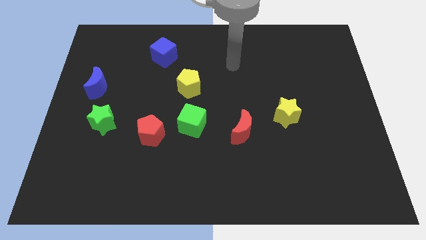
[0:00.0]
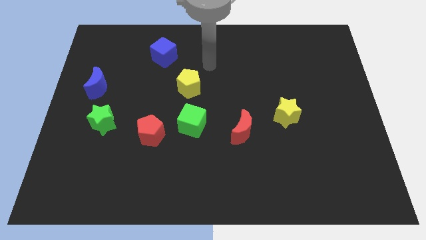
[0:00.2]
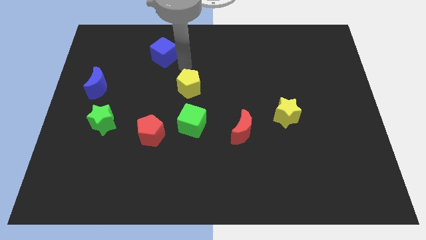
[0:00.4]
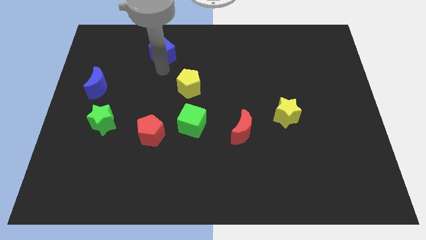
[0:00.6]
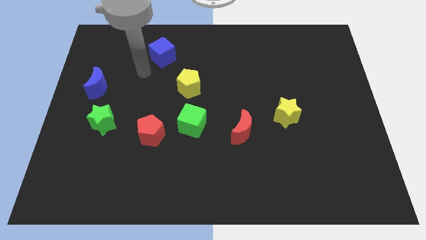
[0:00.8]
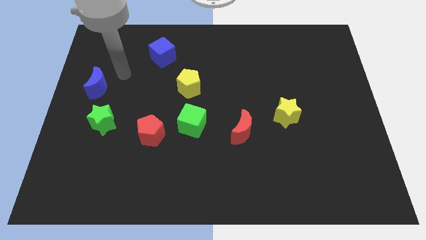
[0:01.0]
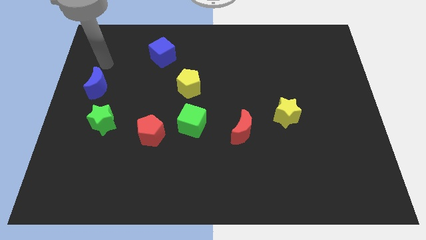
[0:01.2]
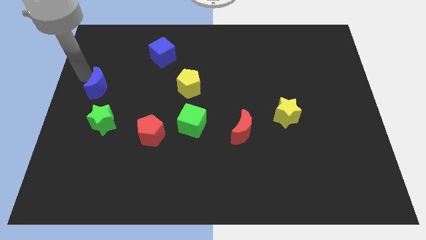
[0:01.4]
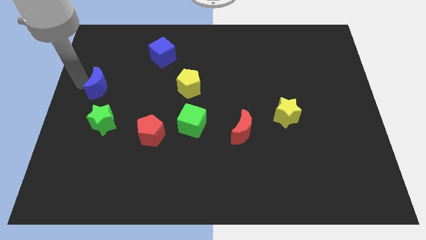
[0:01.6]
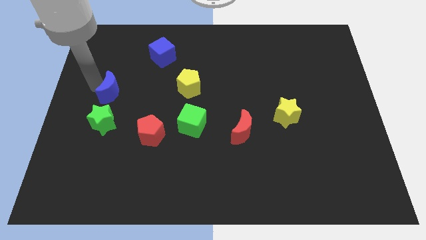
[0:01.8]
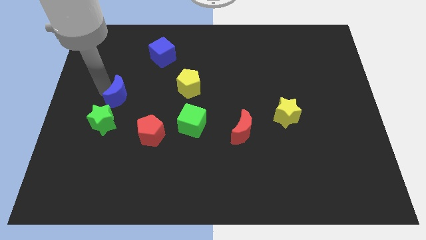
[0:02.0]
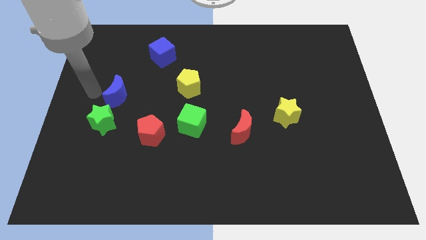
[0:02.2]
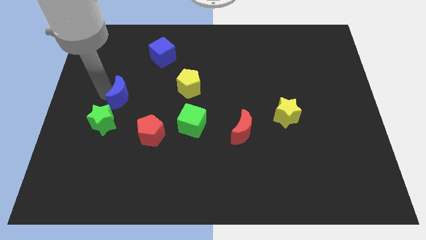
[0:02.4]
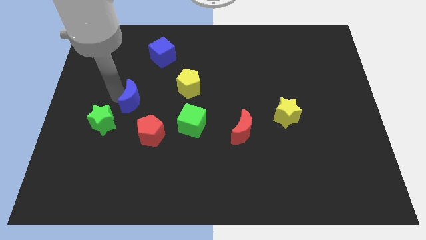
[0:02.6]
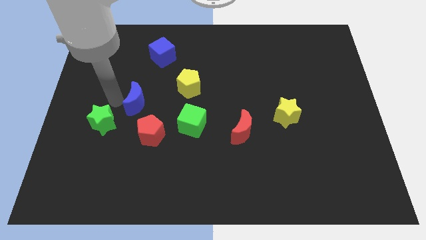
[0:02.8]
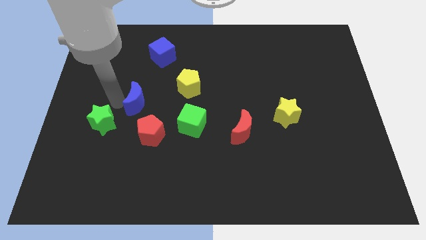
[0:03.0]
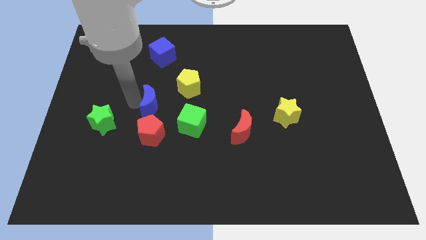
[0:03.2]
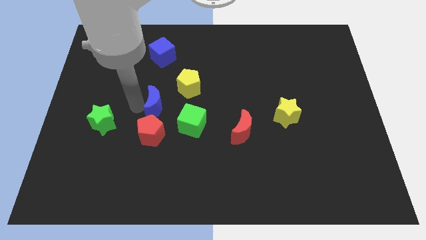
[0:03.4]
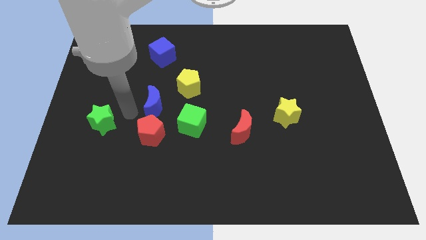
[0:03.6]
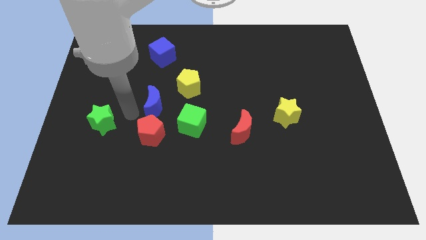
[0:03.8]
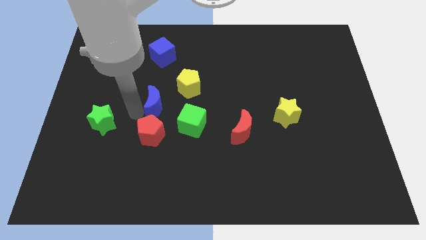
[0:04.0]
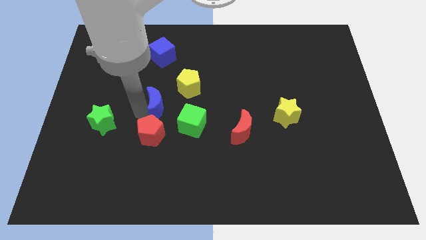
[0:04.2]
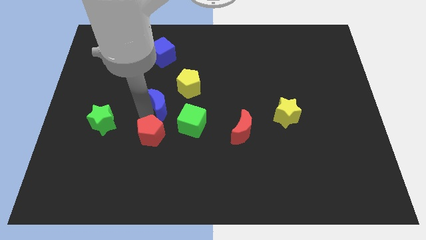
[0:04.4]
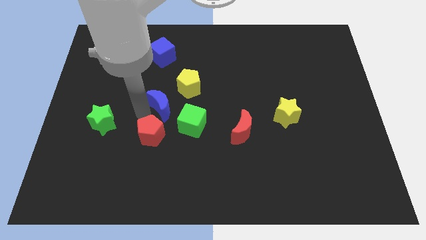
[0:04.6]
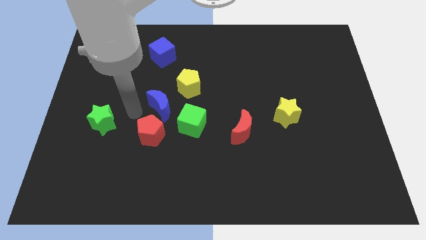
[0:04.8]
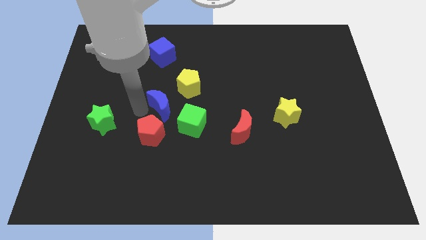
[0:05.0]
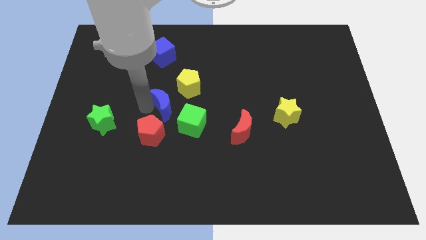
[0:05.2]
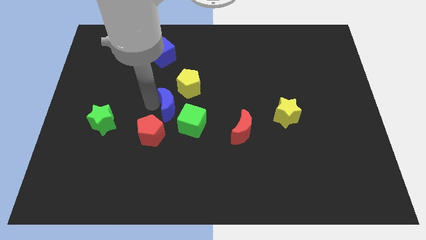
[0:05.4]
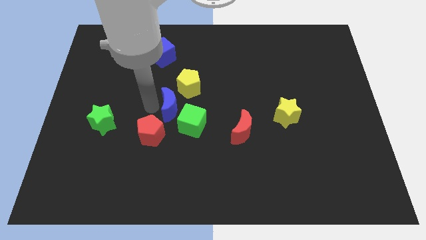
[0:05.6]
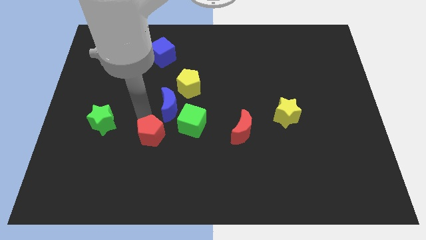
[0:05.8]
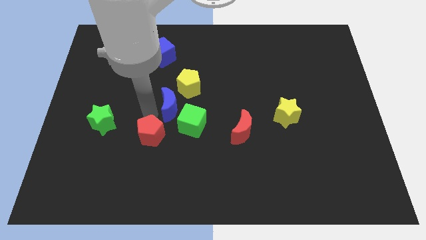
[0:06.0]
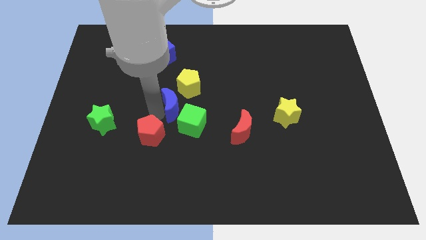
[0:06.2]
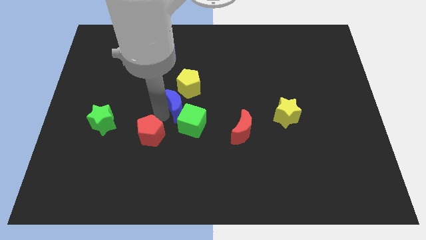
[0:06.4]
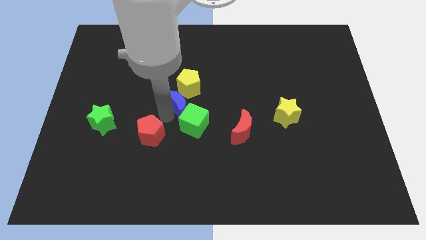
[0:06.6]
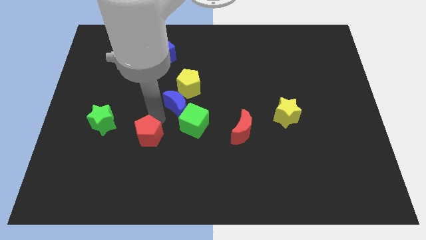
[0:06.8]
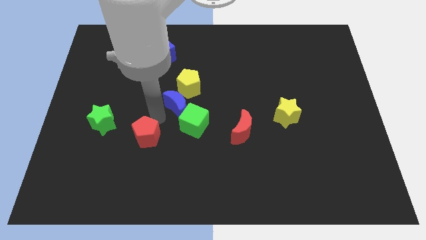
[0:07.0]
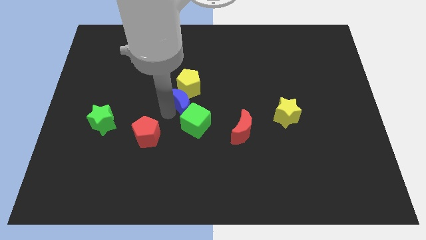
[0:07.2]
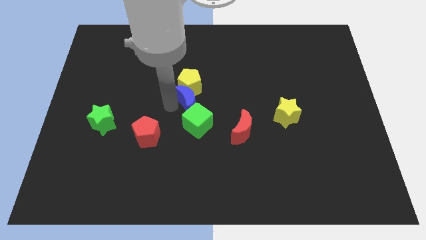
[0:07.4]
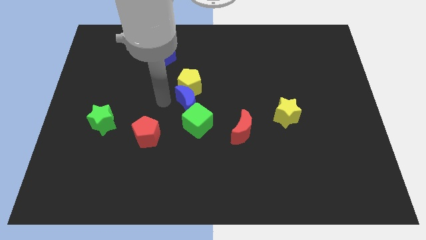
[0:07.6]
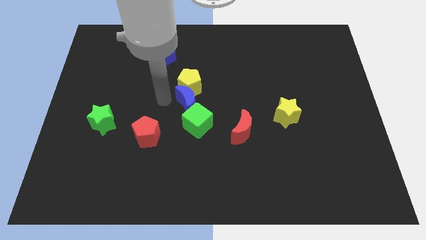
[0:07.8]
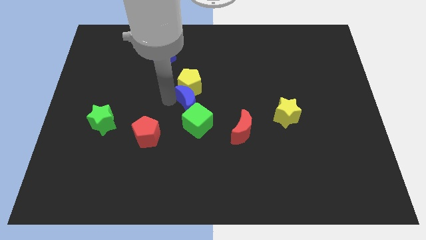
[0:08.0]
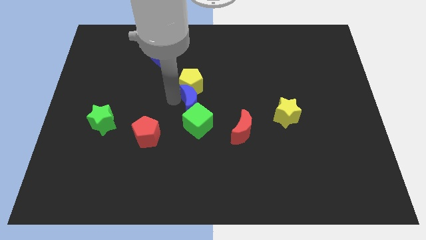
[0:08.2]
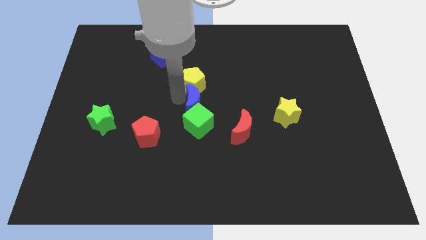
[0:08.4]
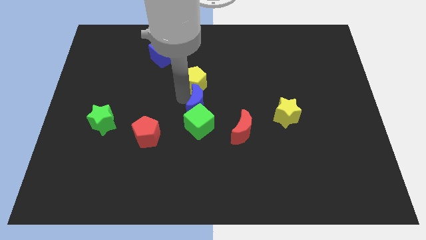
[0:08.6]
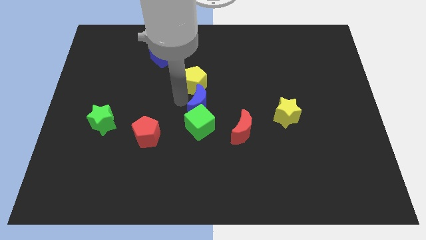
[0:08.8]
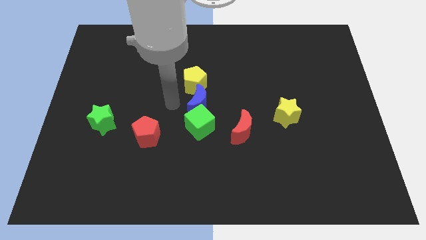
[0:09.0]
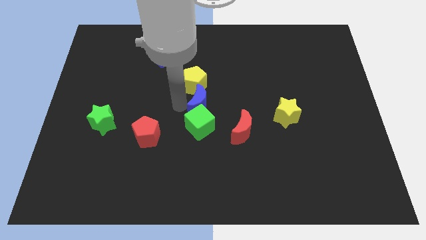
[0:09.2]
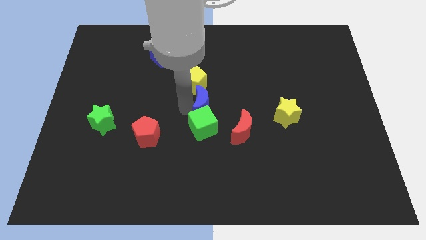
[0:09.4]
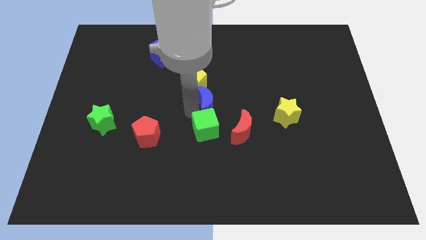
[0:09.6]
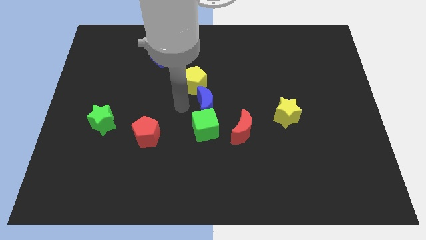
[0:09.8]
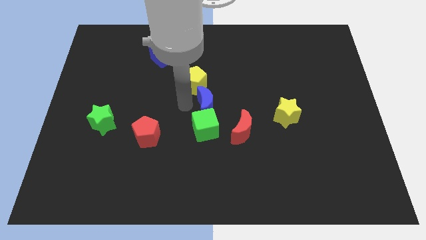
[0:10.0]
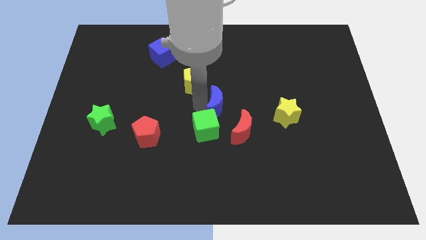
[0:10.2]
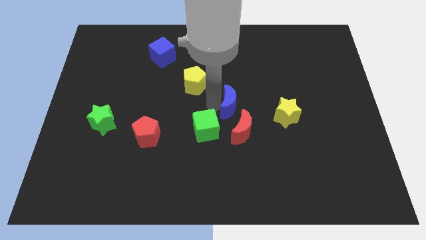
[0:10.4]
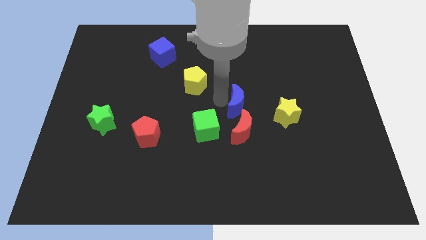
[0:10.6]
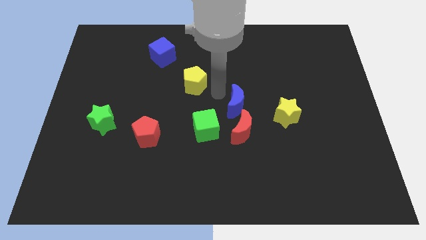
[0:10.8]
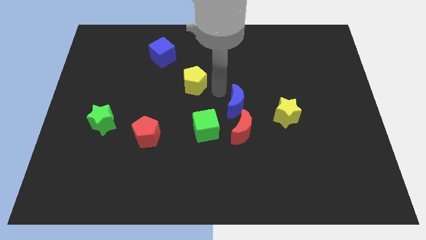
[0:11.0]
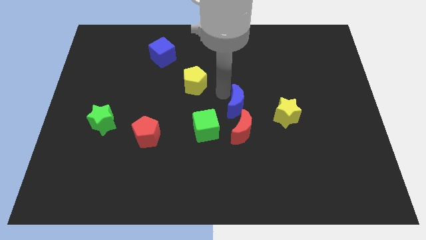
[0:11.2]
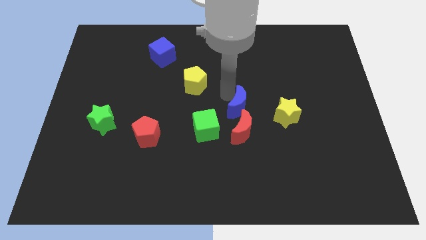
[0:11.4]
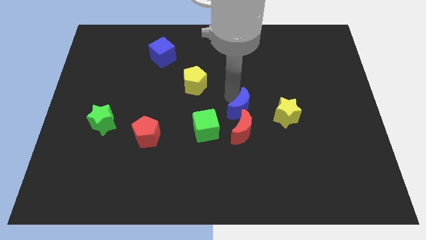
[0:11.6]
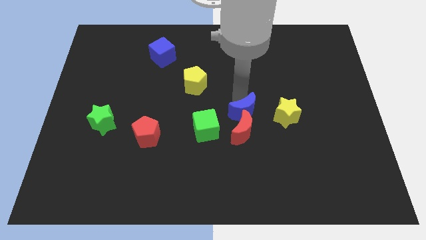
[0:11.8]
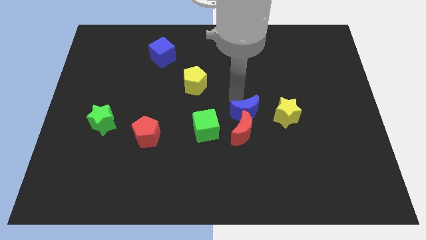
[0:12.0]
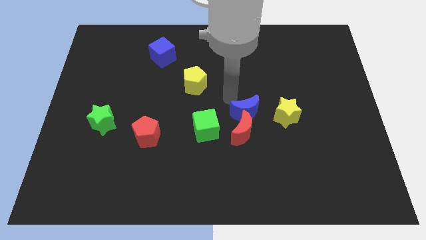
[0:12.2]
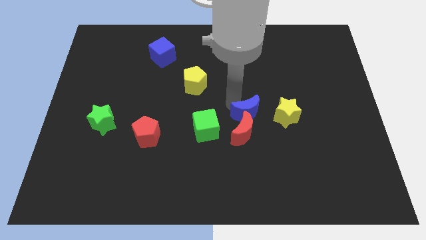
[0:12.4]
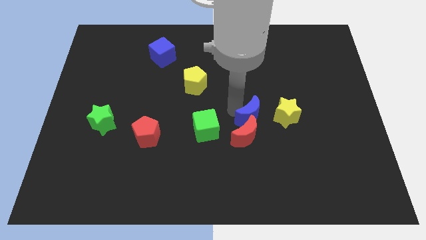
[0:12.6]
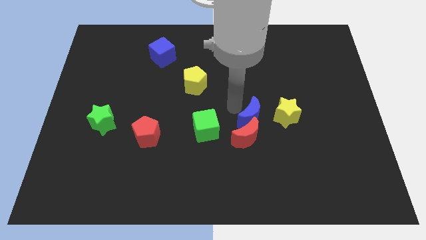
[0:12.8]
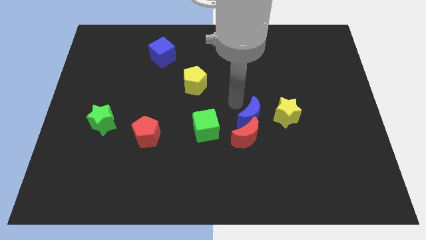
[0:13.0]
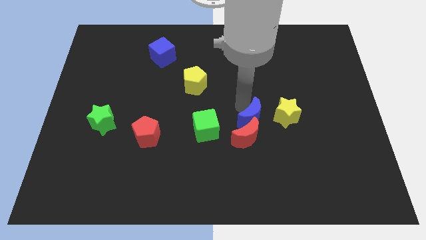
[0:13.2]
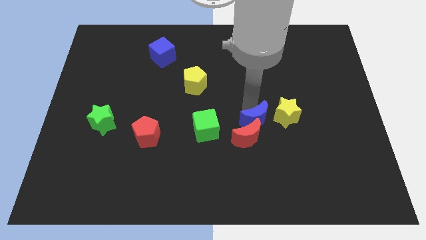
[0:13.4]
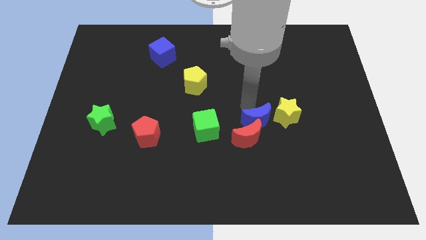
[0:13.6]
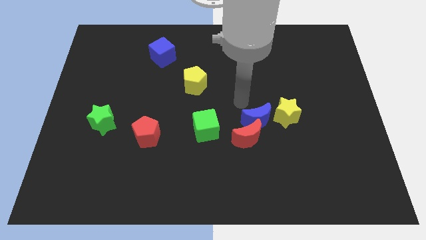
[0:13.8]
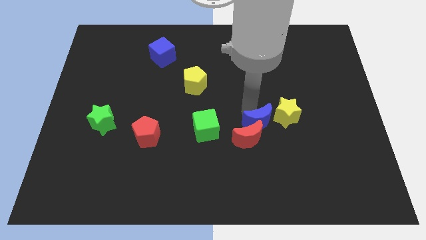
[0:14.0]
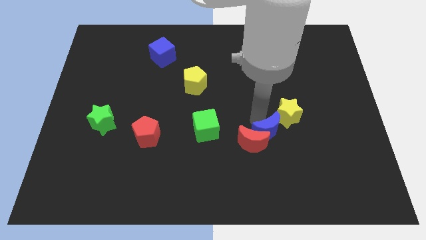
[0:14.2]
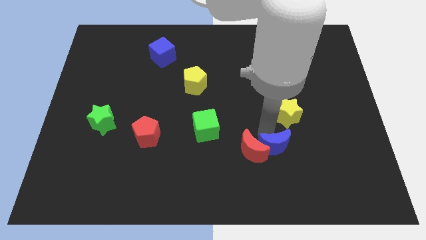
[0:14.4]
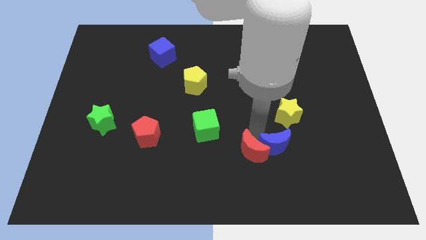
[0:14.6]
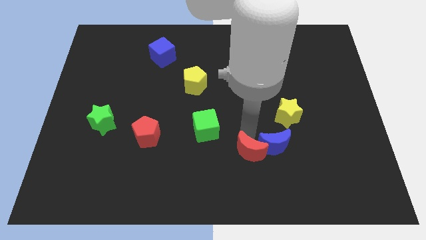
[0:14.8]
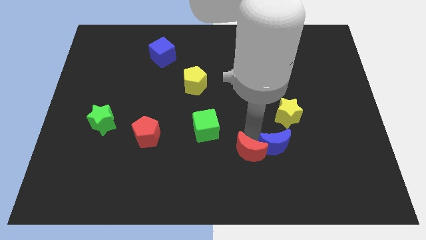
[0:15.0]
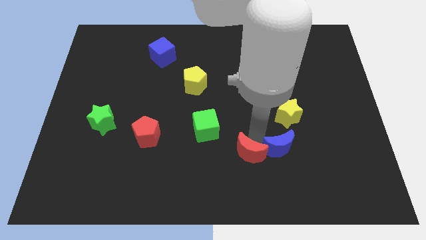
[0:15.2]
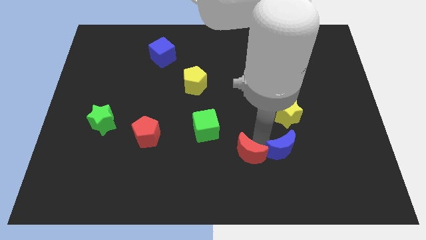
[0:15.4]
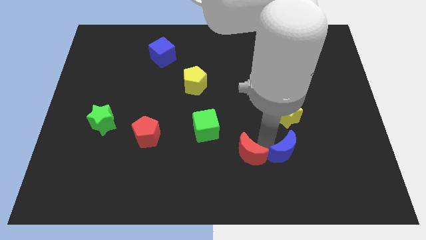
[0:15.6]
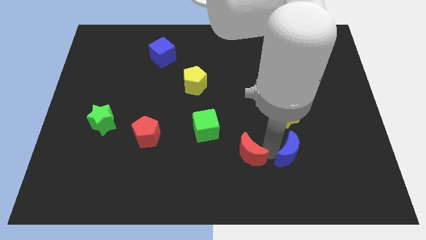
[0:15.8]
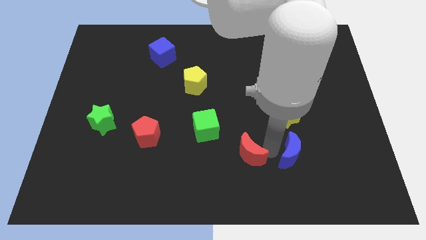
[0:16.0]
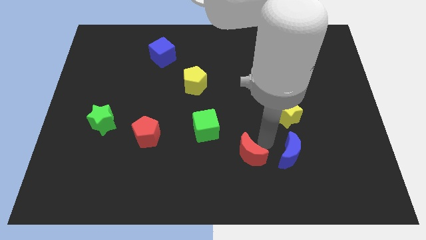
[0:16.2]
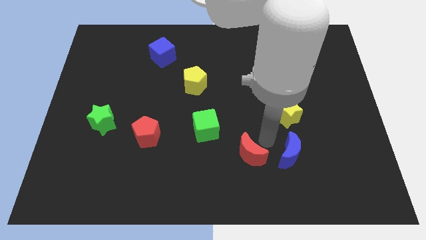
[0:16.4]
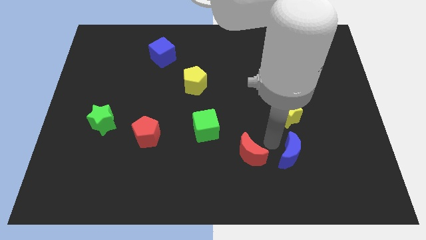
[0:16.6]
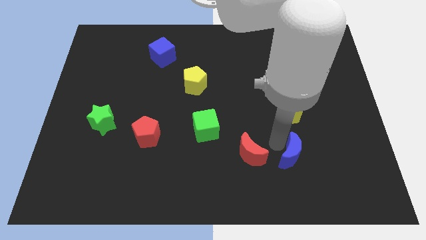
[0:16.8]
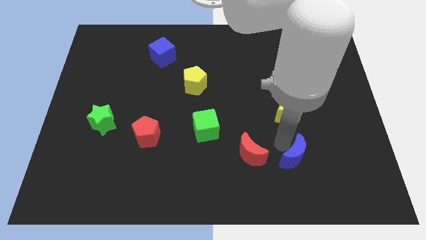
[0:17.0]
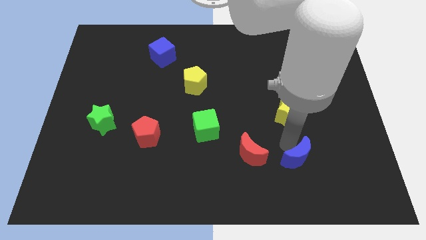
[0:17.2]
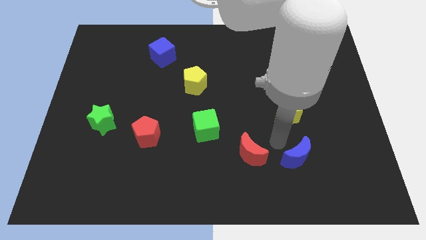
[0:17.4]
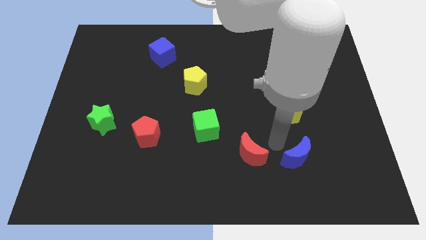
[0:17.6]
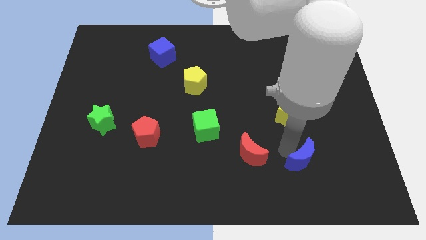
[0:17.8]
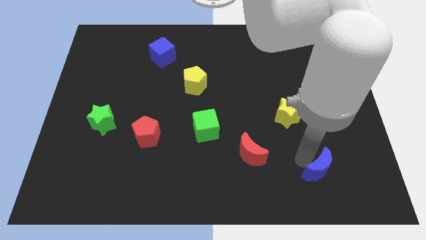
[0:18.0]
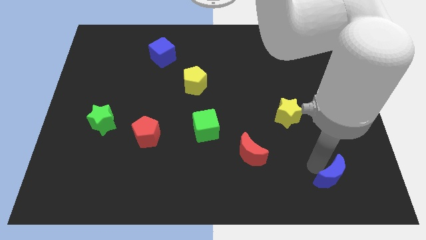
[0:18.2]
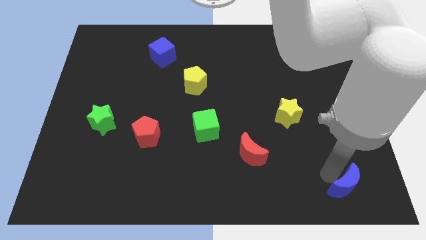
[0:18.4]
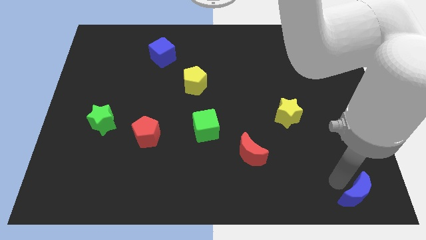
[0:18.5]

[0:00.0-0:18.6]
push the blue moon to the bottom right corner
